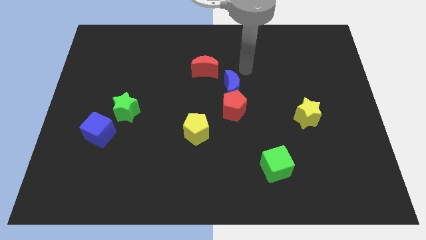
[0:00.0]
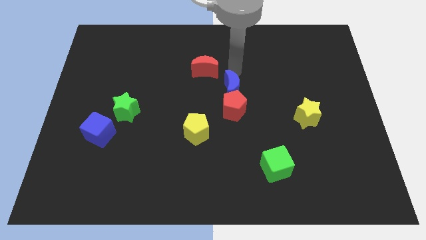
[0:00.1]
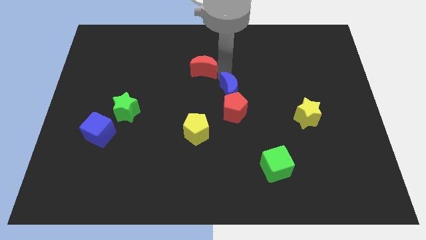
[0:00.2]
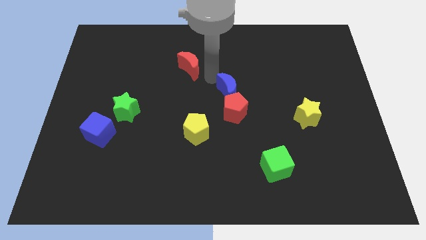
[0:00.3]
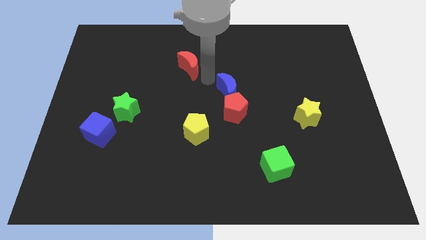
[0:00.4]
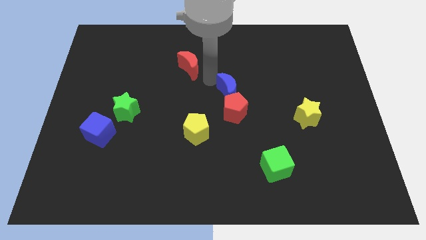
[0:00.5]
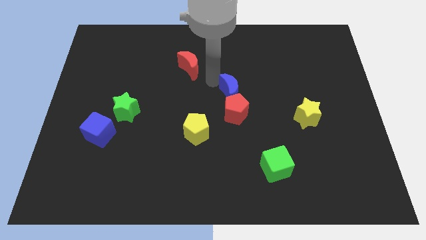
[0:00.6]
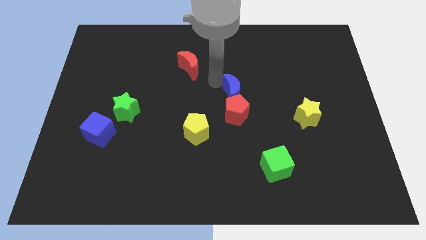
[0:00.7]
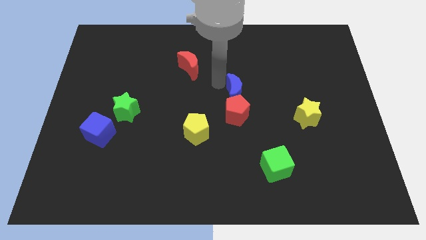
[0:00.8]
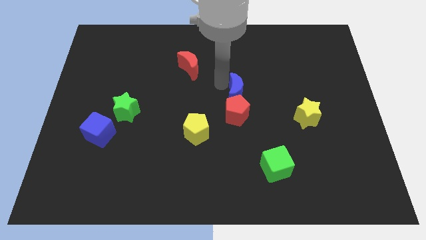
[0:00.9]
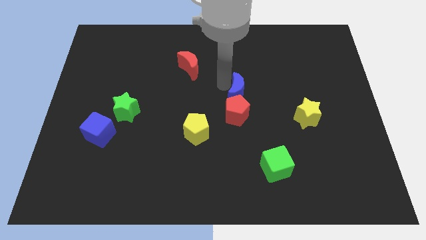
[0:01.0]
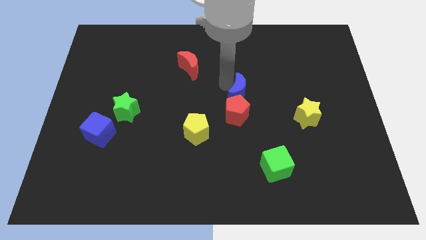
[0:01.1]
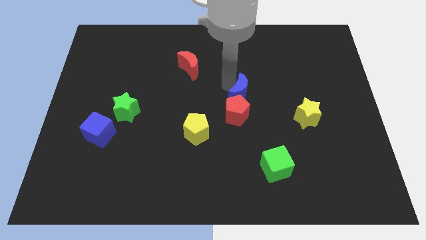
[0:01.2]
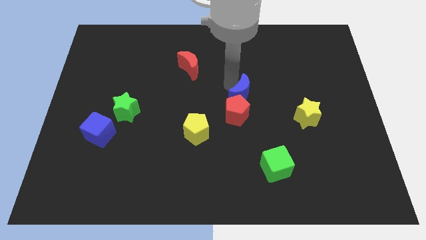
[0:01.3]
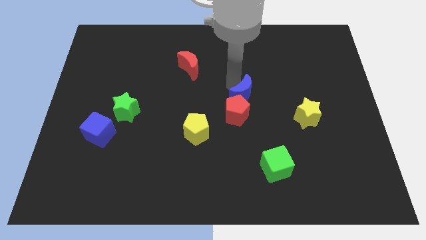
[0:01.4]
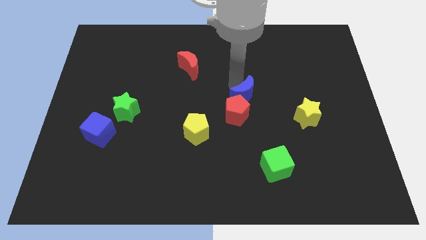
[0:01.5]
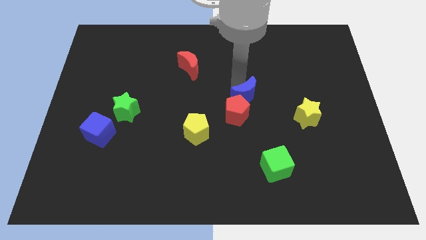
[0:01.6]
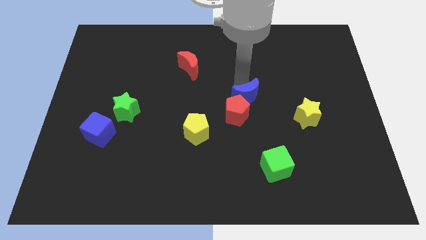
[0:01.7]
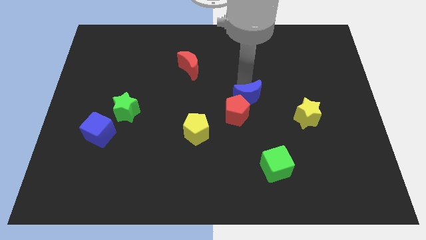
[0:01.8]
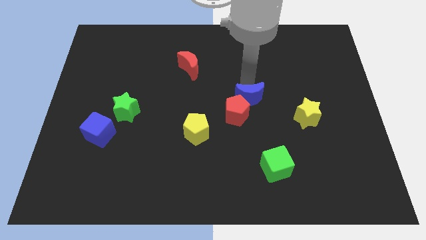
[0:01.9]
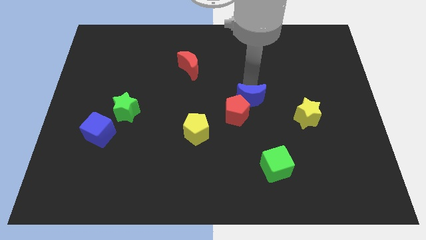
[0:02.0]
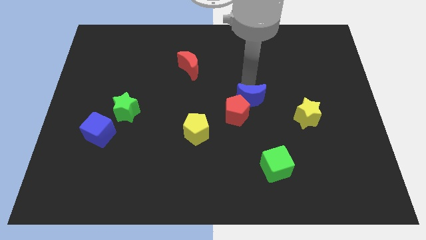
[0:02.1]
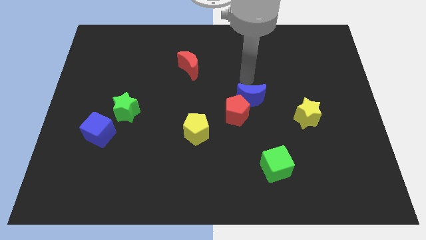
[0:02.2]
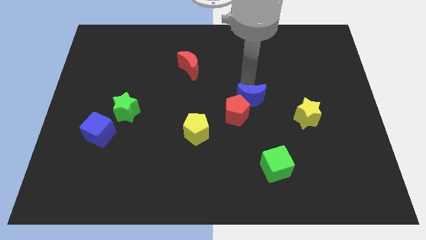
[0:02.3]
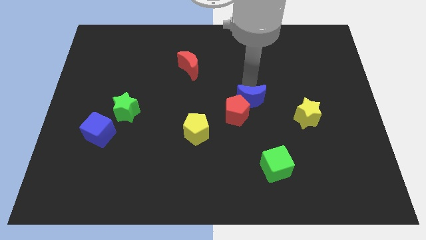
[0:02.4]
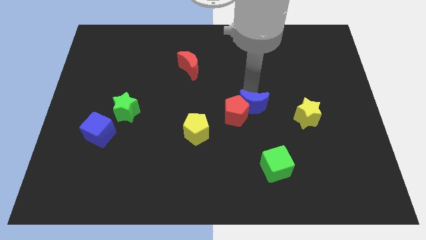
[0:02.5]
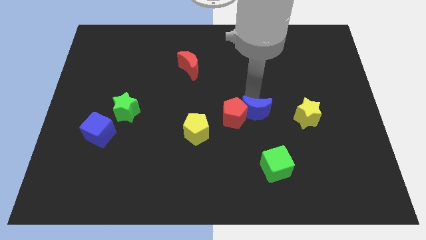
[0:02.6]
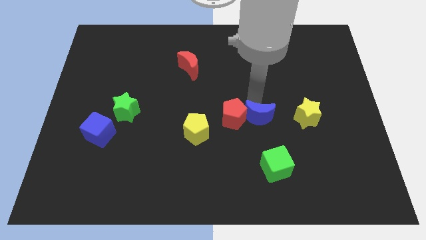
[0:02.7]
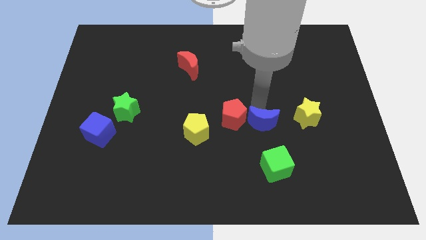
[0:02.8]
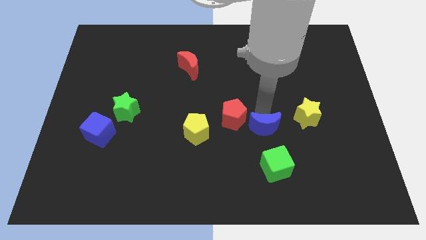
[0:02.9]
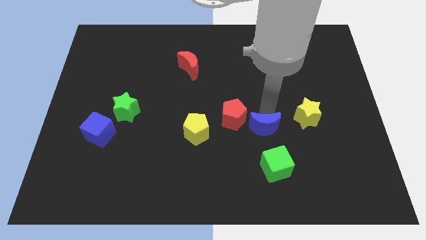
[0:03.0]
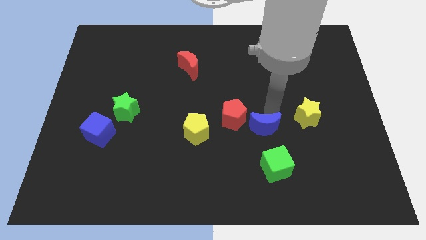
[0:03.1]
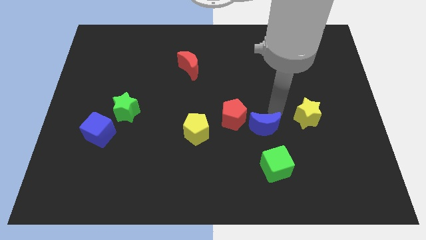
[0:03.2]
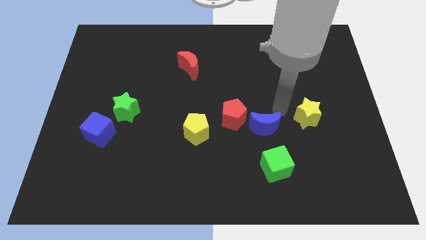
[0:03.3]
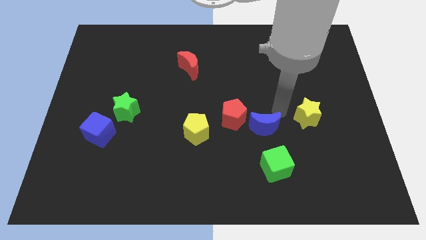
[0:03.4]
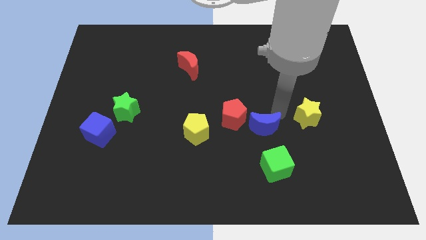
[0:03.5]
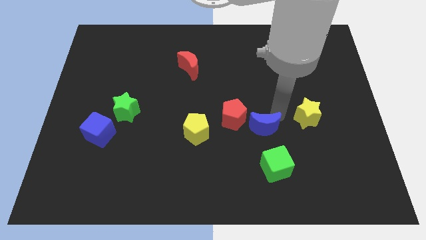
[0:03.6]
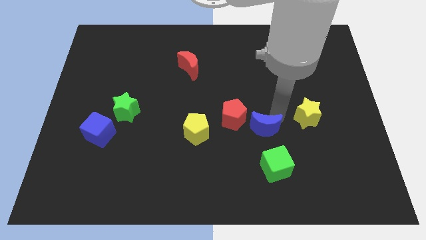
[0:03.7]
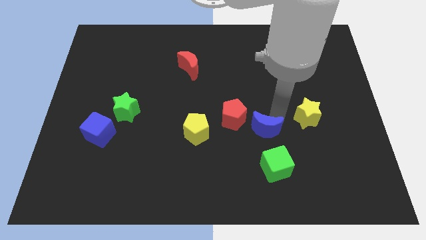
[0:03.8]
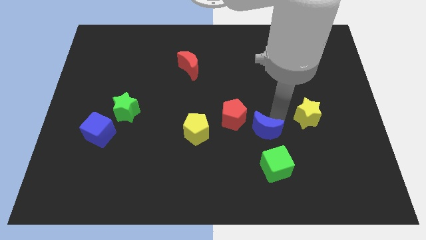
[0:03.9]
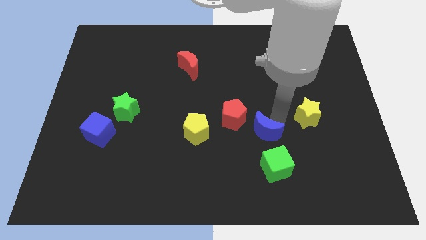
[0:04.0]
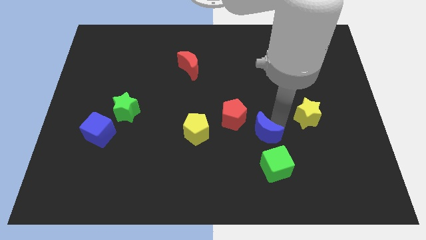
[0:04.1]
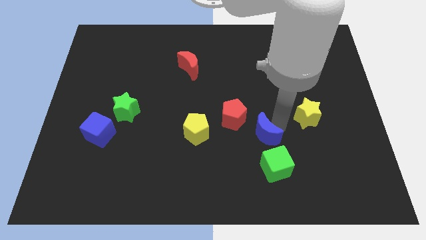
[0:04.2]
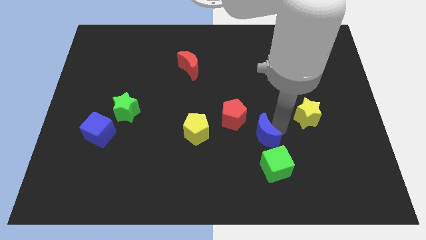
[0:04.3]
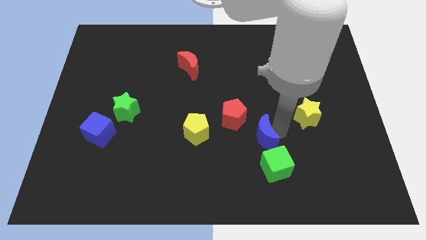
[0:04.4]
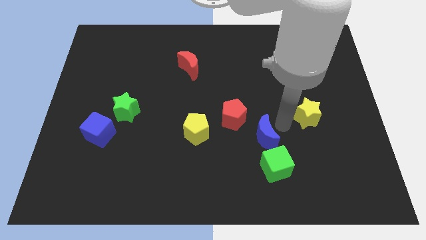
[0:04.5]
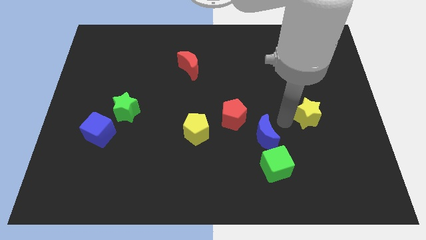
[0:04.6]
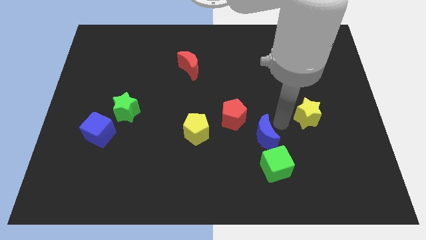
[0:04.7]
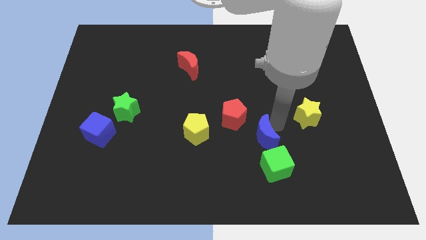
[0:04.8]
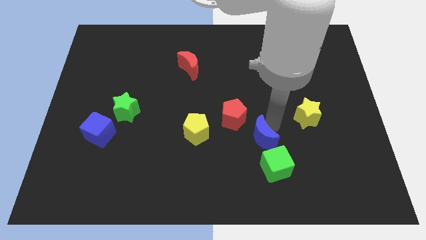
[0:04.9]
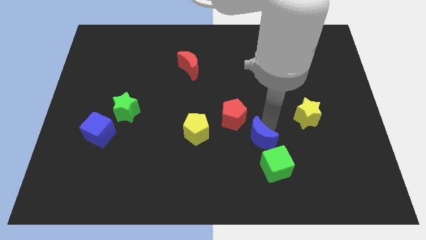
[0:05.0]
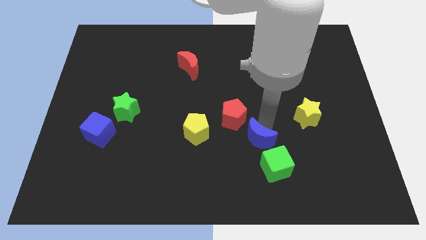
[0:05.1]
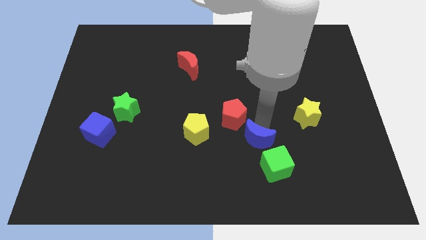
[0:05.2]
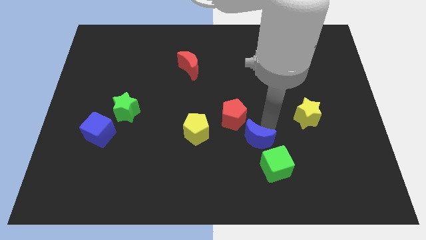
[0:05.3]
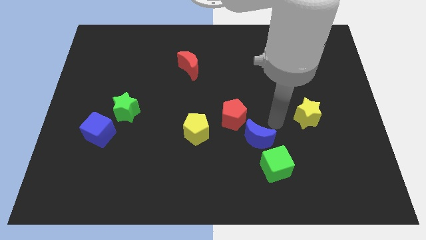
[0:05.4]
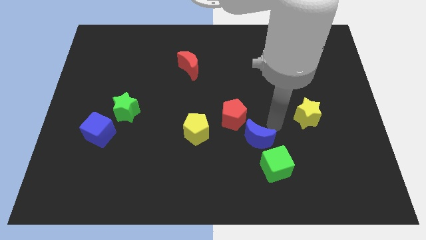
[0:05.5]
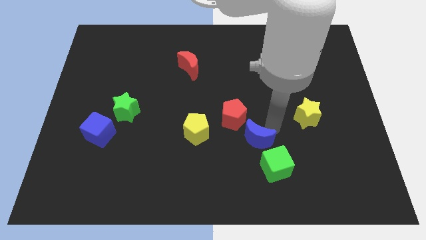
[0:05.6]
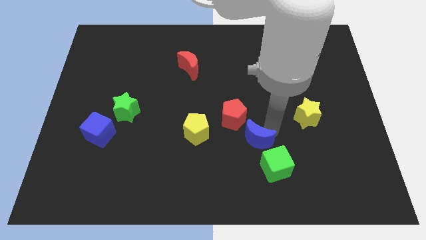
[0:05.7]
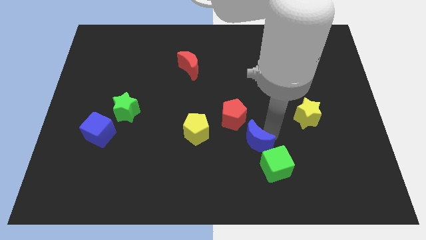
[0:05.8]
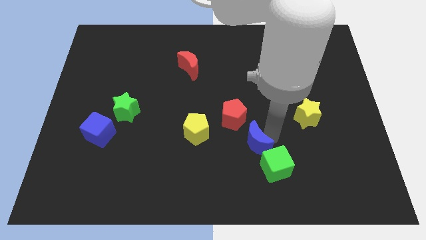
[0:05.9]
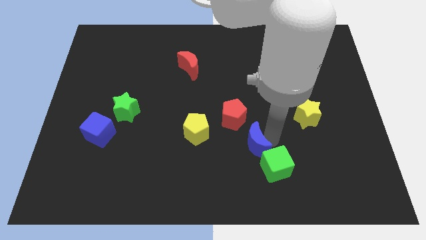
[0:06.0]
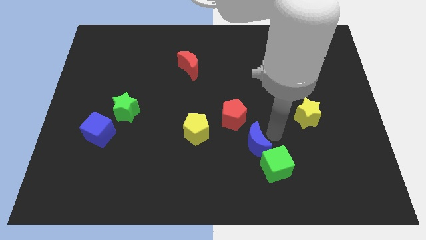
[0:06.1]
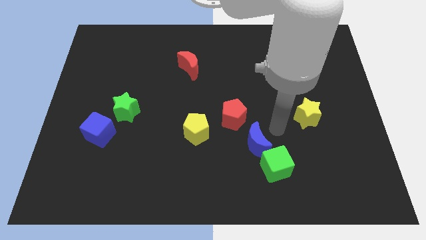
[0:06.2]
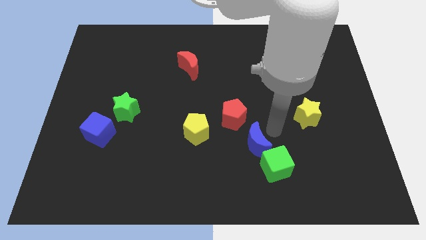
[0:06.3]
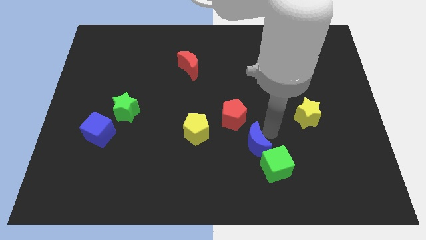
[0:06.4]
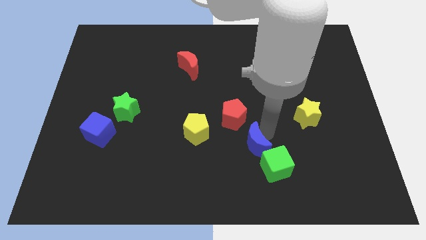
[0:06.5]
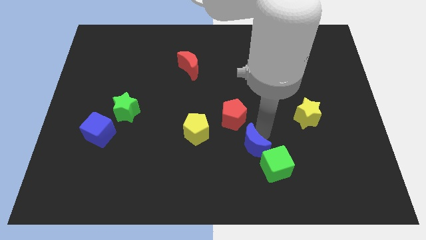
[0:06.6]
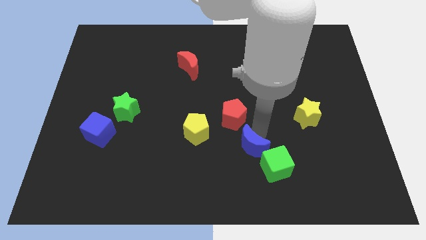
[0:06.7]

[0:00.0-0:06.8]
push the blue moon to the left of the green cube

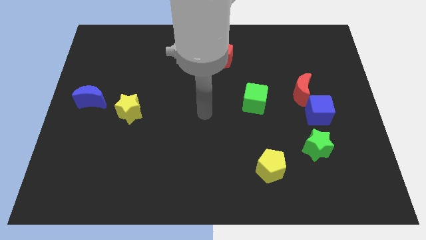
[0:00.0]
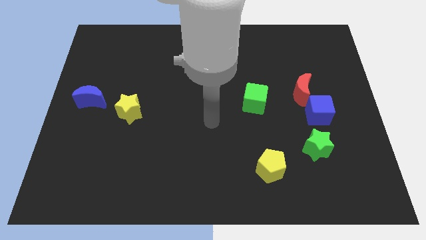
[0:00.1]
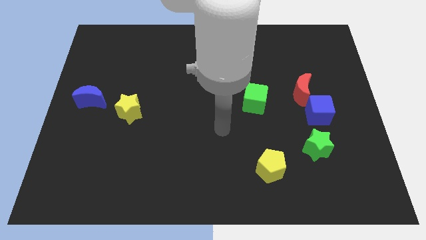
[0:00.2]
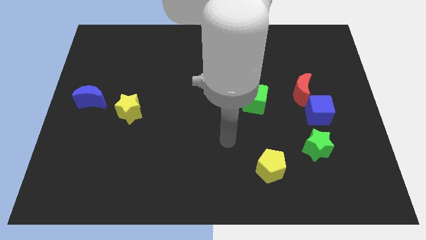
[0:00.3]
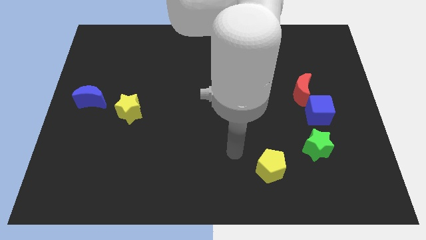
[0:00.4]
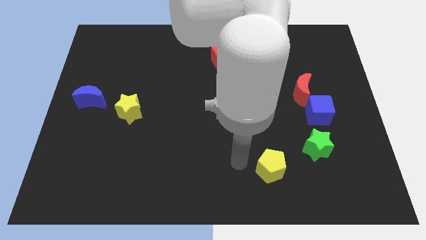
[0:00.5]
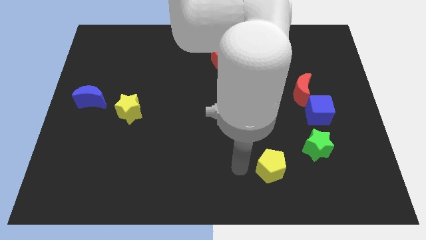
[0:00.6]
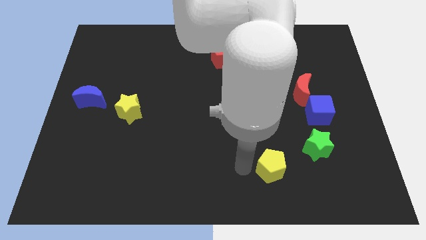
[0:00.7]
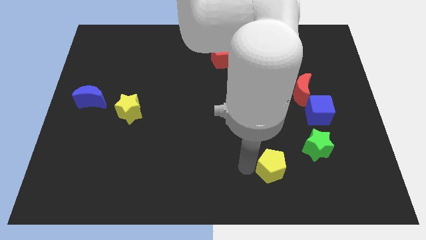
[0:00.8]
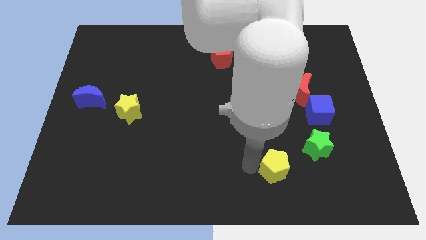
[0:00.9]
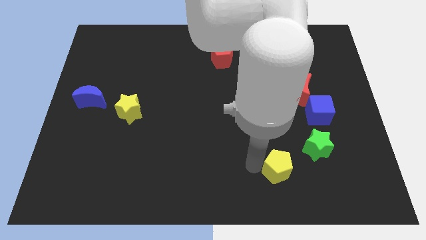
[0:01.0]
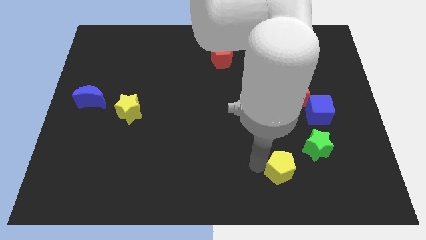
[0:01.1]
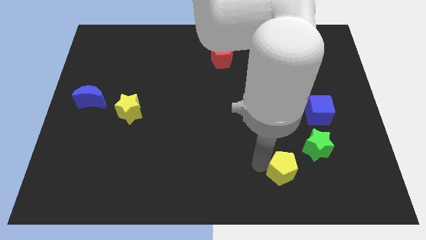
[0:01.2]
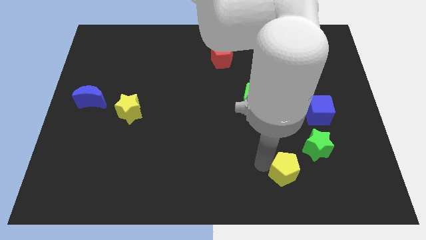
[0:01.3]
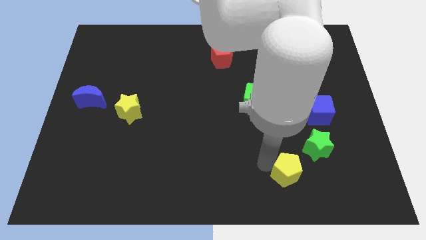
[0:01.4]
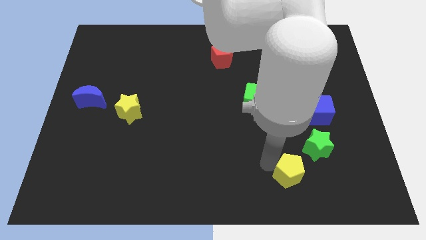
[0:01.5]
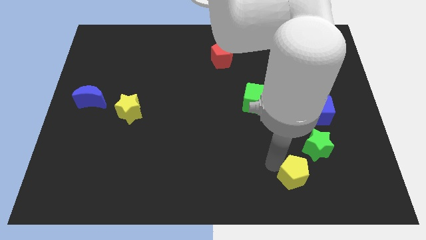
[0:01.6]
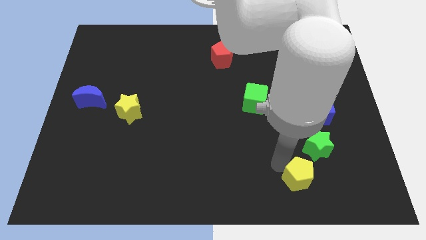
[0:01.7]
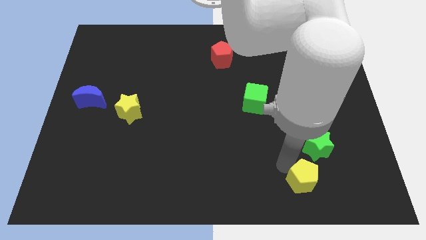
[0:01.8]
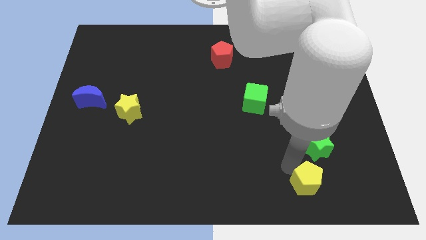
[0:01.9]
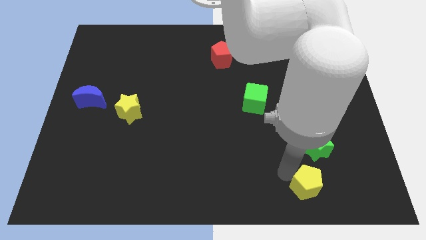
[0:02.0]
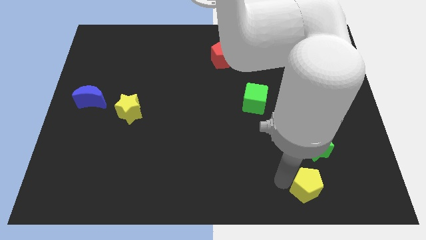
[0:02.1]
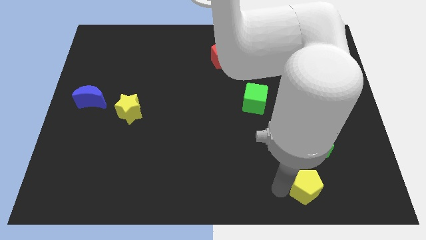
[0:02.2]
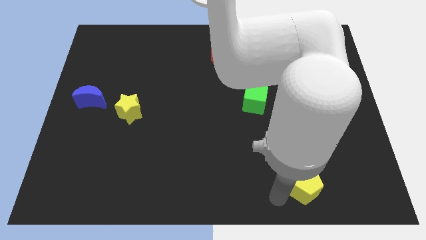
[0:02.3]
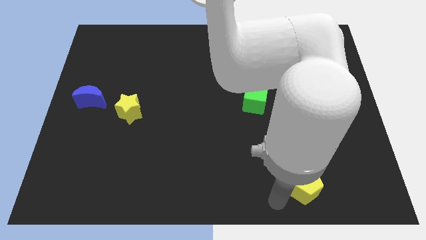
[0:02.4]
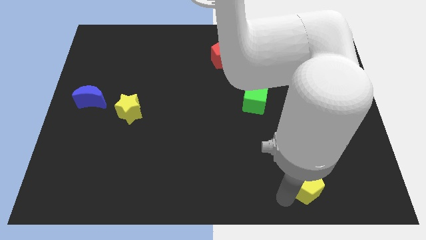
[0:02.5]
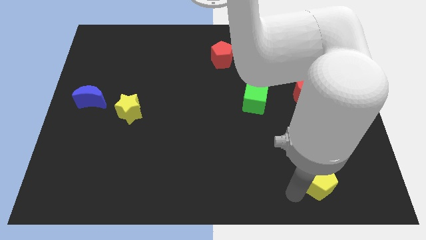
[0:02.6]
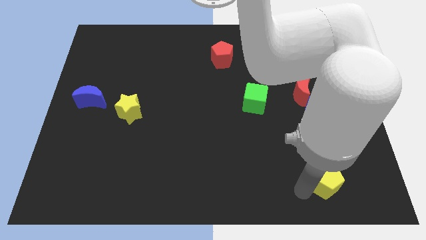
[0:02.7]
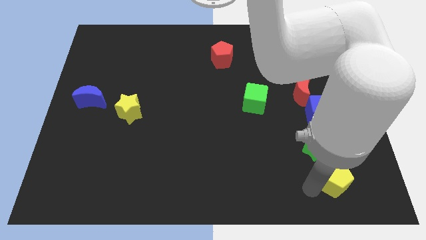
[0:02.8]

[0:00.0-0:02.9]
slide the yellow pentagon to the bottom right side of the green star
